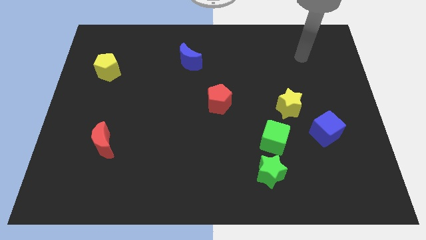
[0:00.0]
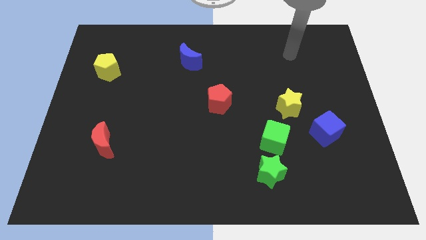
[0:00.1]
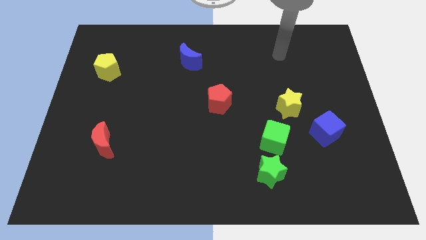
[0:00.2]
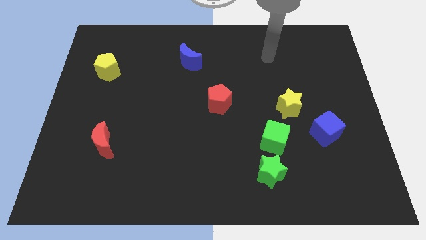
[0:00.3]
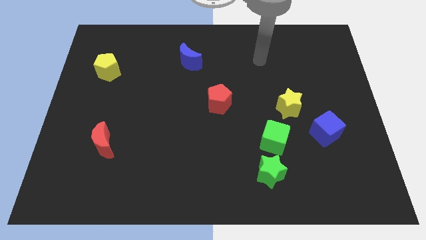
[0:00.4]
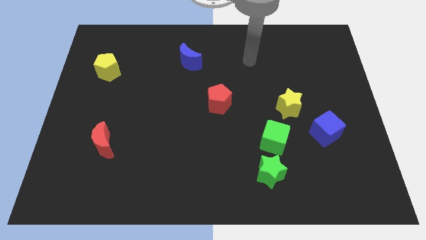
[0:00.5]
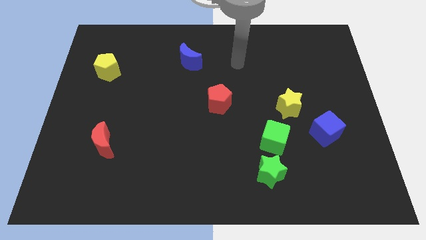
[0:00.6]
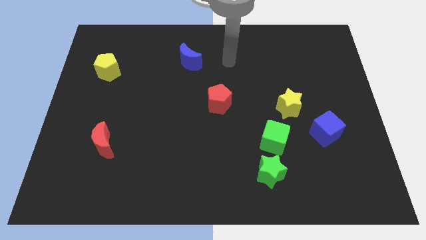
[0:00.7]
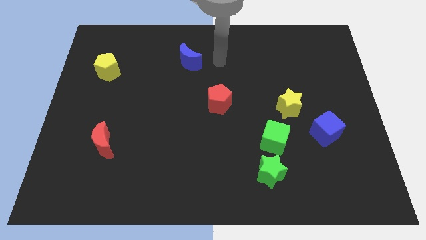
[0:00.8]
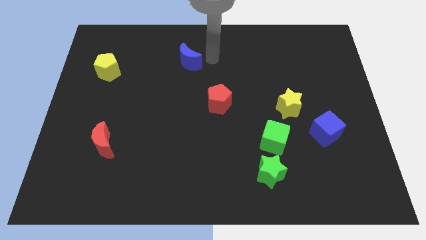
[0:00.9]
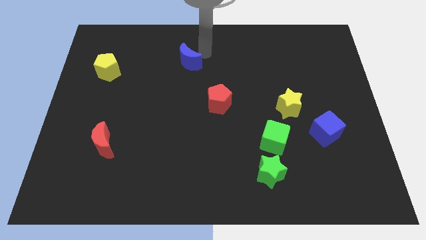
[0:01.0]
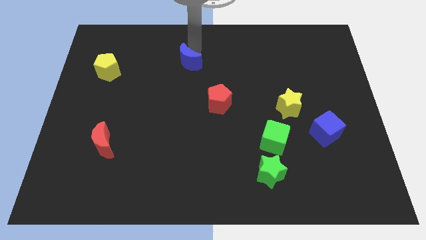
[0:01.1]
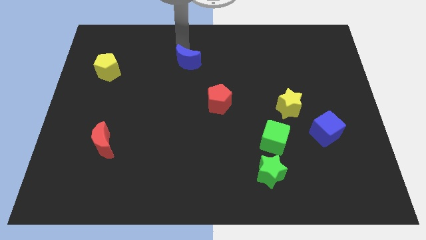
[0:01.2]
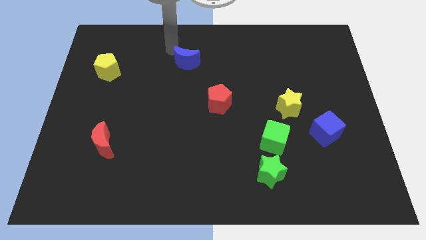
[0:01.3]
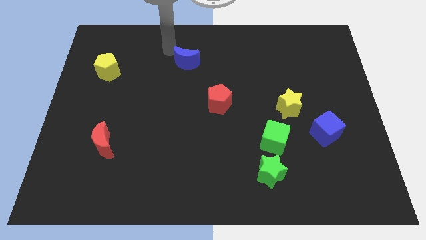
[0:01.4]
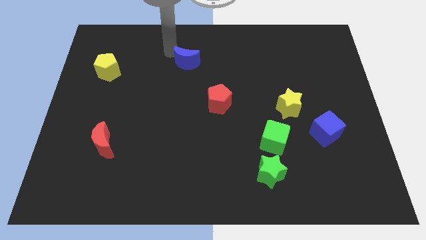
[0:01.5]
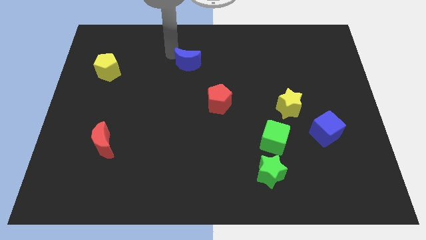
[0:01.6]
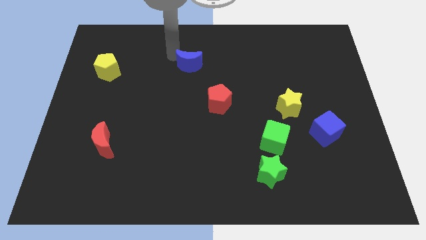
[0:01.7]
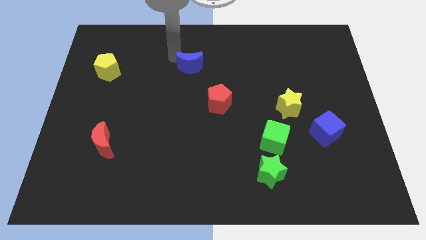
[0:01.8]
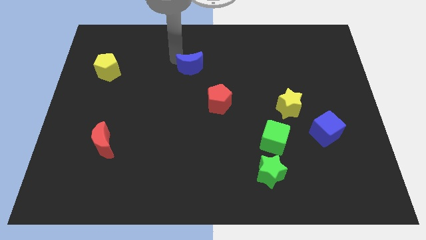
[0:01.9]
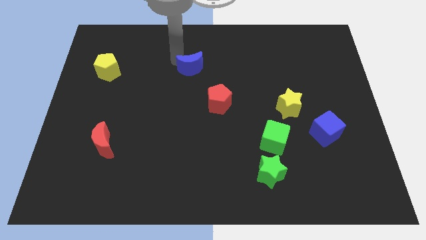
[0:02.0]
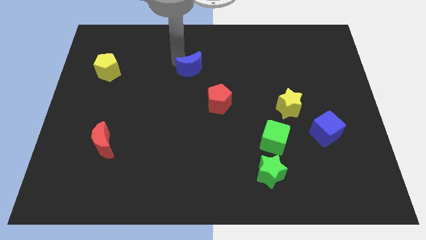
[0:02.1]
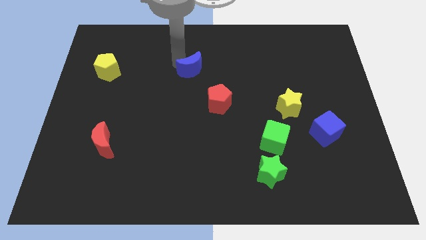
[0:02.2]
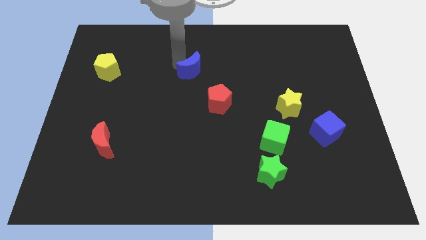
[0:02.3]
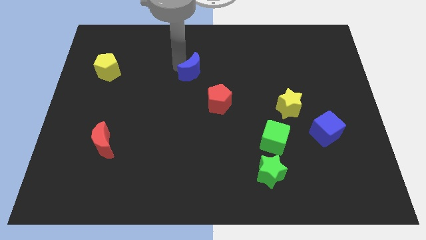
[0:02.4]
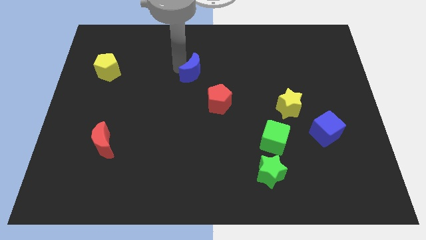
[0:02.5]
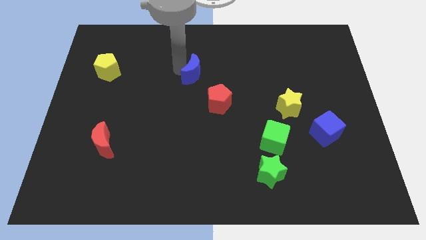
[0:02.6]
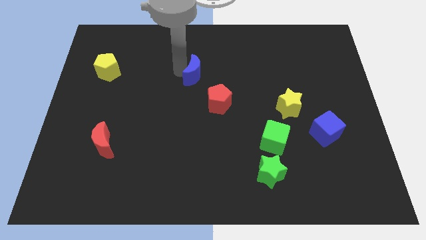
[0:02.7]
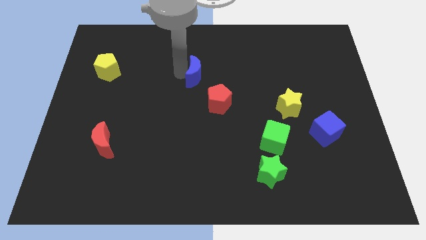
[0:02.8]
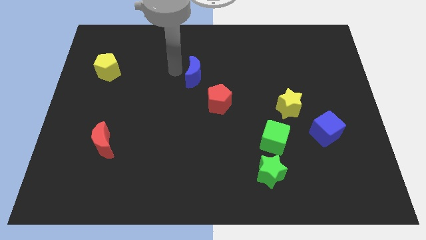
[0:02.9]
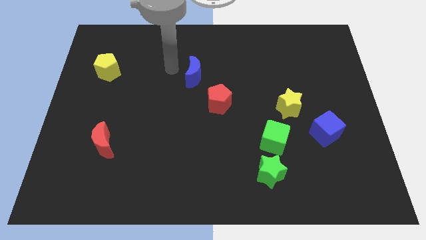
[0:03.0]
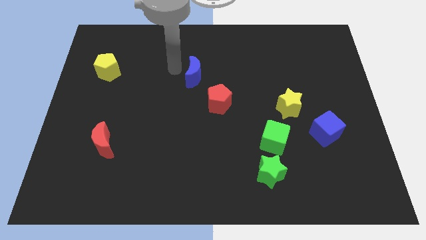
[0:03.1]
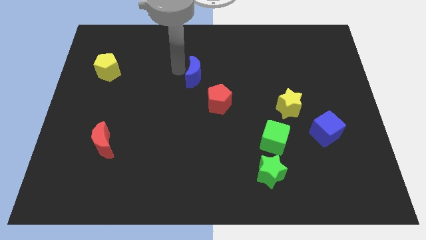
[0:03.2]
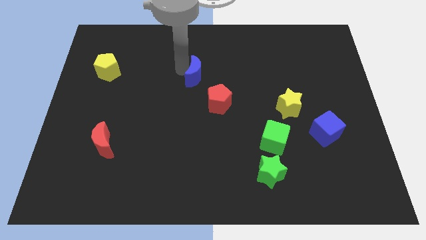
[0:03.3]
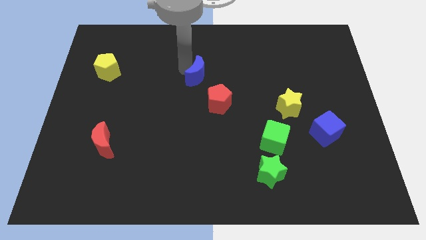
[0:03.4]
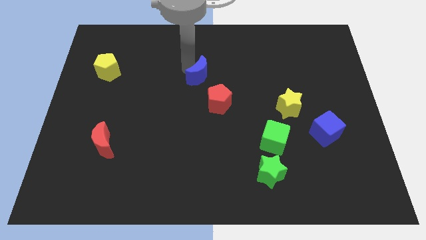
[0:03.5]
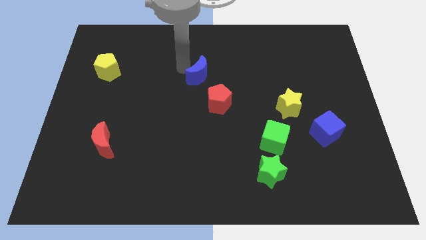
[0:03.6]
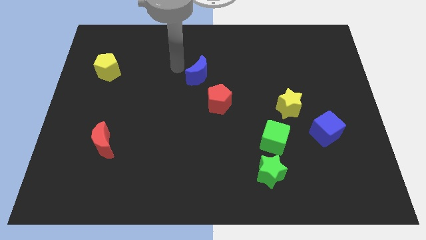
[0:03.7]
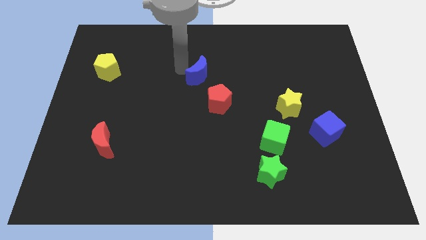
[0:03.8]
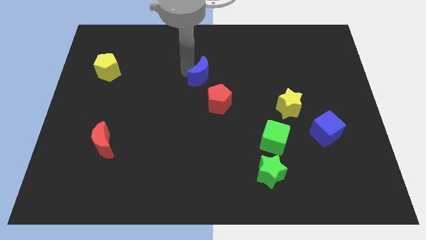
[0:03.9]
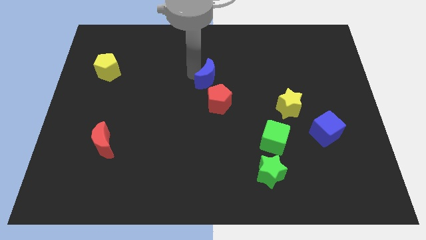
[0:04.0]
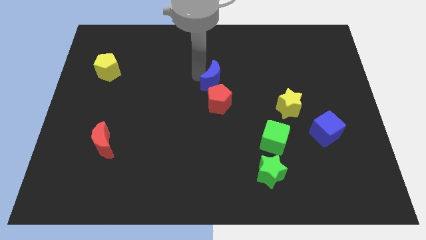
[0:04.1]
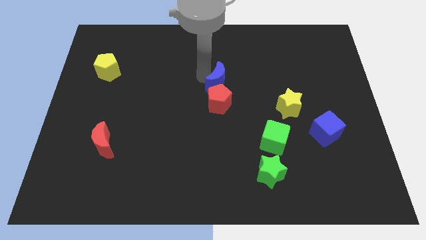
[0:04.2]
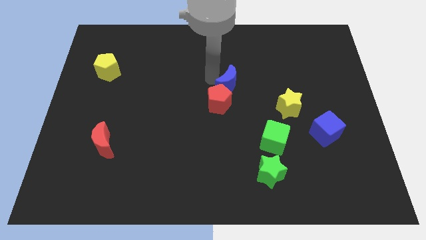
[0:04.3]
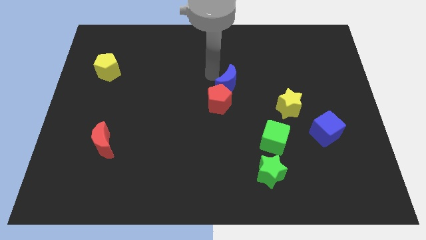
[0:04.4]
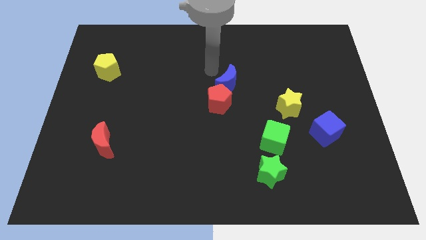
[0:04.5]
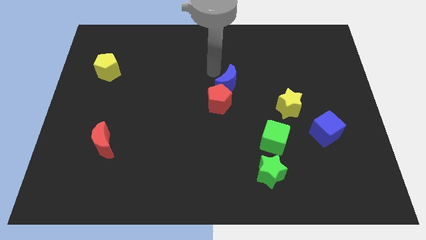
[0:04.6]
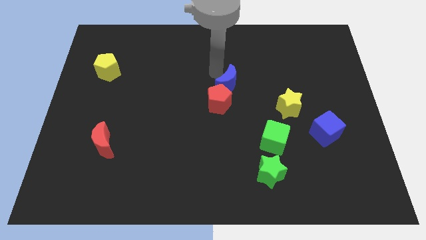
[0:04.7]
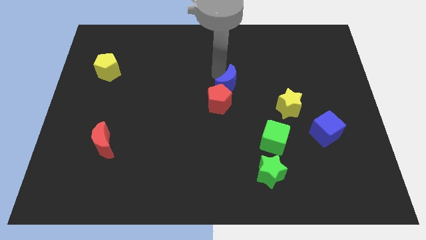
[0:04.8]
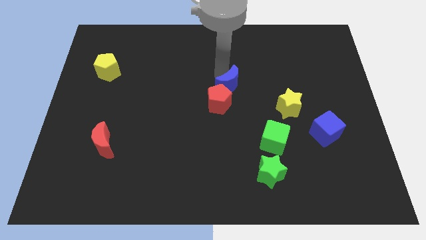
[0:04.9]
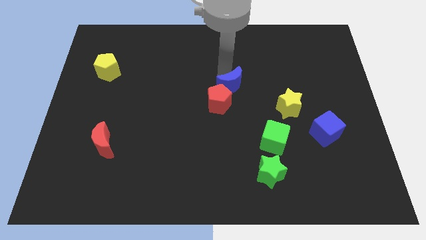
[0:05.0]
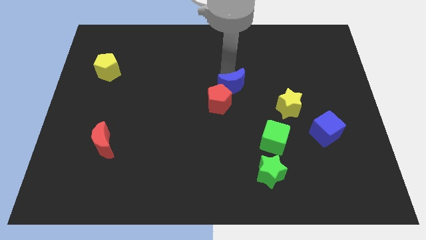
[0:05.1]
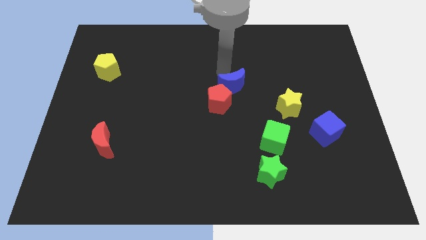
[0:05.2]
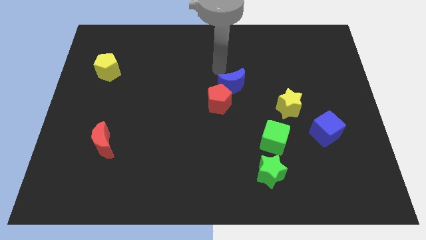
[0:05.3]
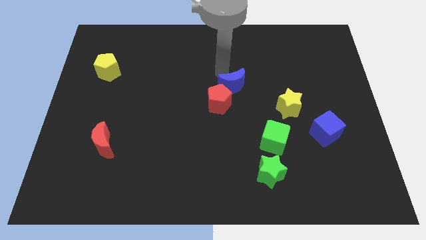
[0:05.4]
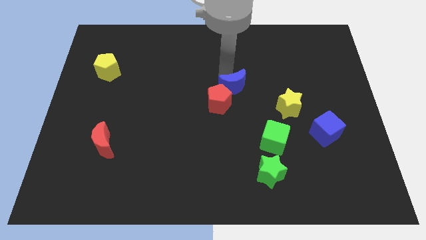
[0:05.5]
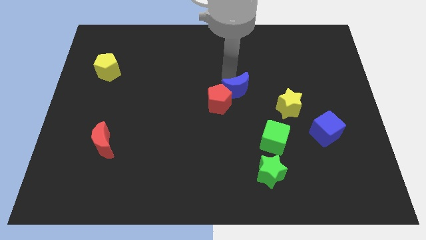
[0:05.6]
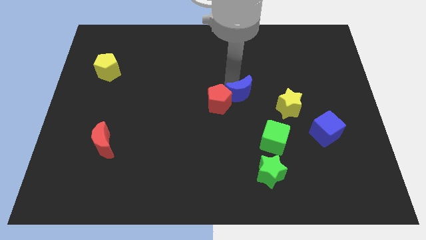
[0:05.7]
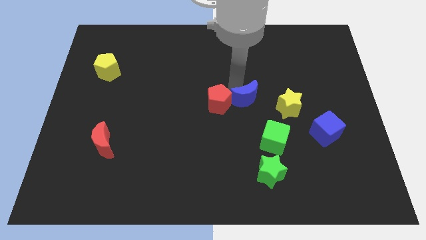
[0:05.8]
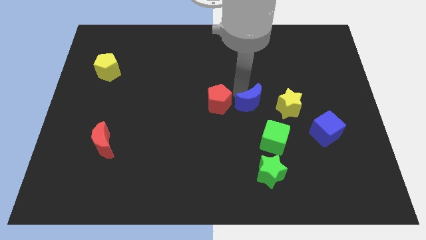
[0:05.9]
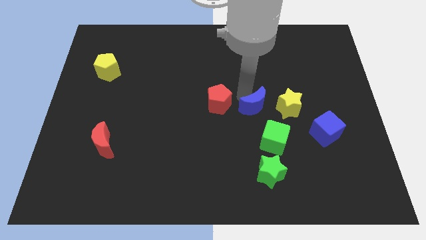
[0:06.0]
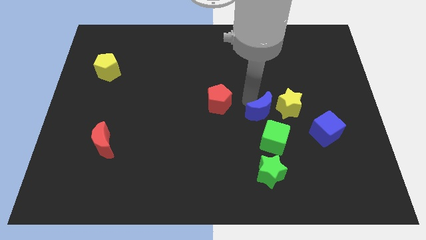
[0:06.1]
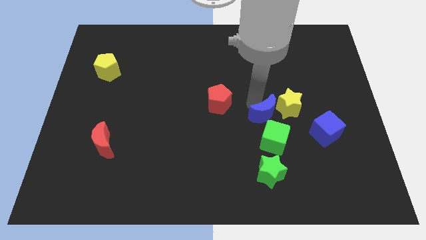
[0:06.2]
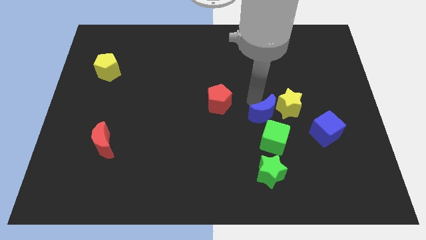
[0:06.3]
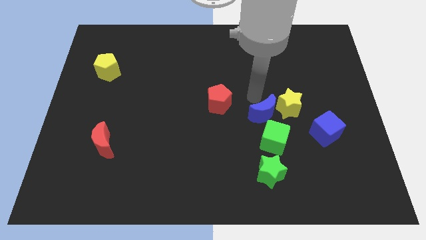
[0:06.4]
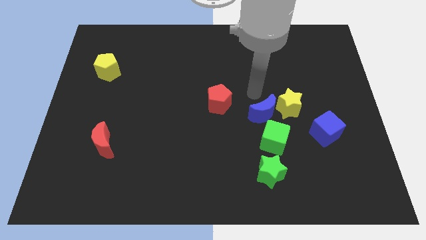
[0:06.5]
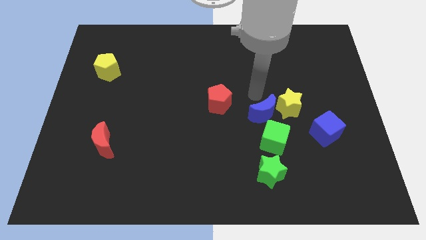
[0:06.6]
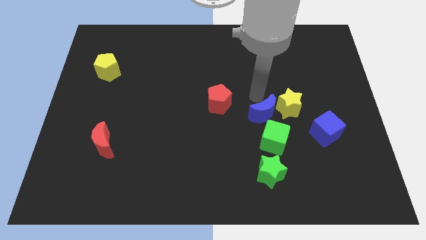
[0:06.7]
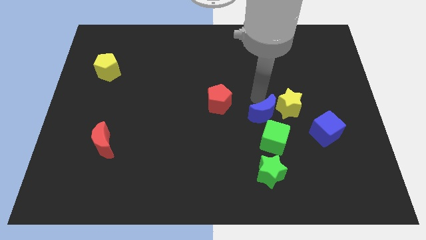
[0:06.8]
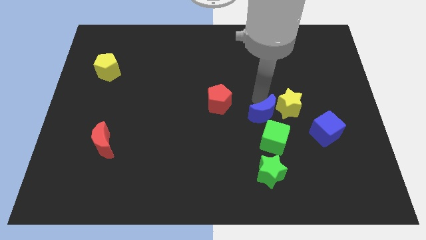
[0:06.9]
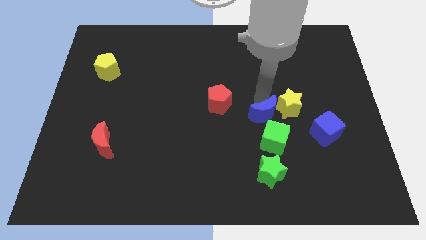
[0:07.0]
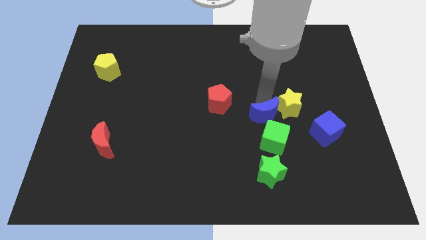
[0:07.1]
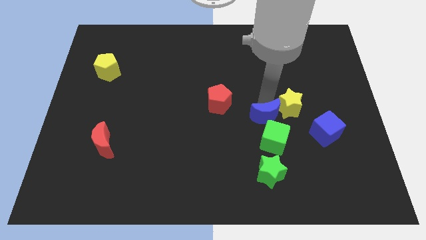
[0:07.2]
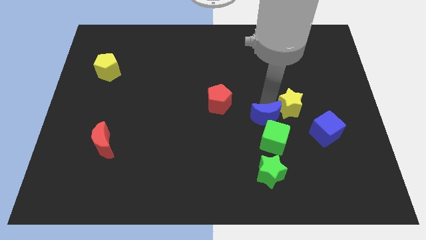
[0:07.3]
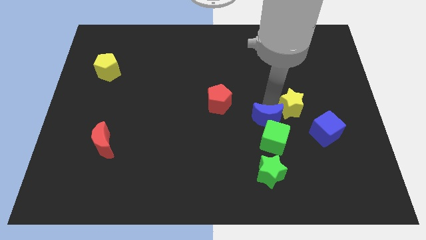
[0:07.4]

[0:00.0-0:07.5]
put the blue moon next to the green cube
